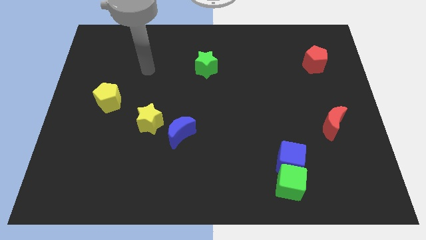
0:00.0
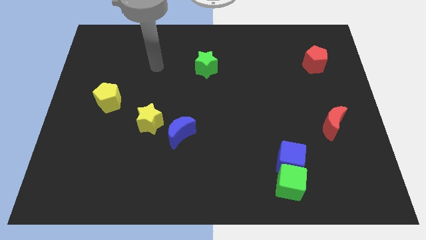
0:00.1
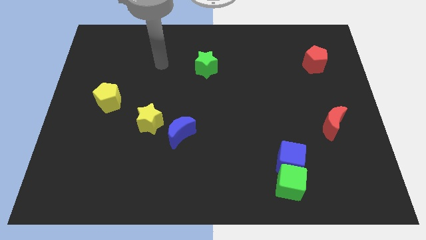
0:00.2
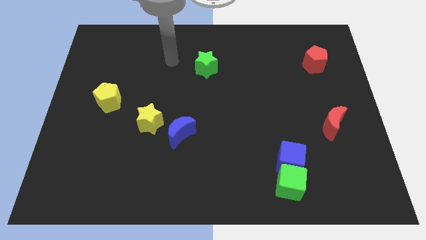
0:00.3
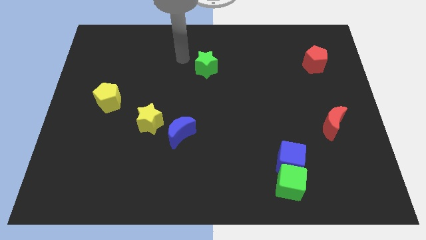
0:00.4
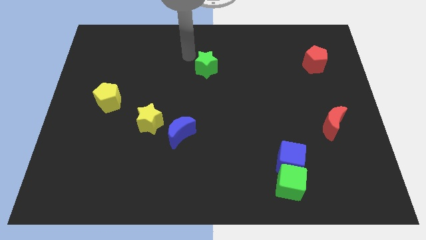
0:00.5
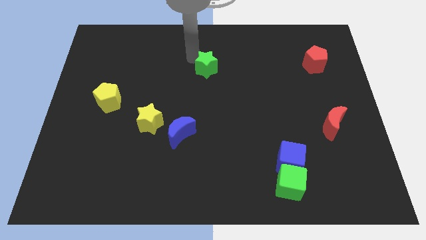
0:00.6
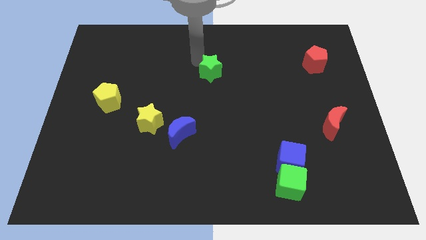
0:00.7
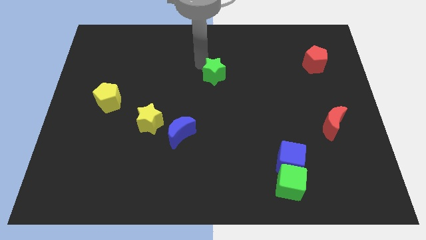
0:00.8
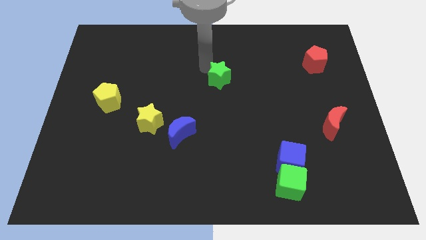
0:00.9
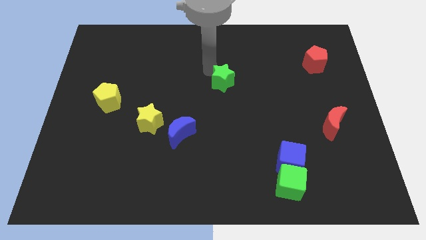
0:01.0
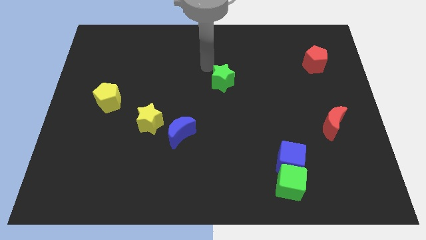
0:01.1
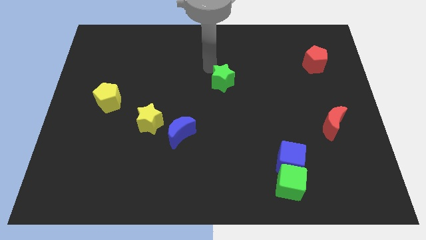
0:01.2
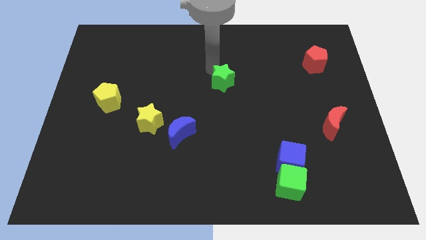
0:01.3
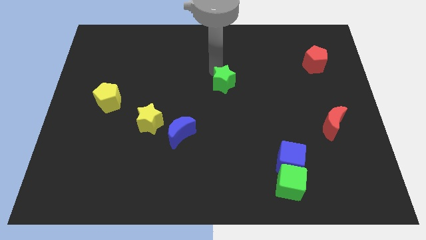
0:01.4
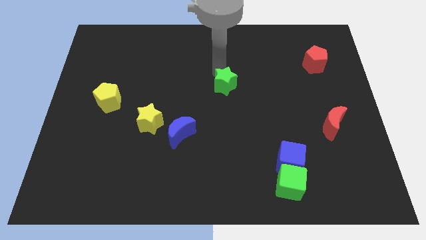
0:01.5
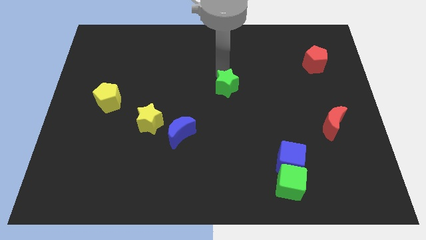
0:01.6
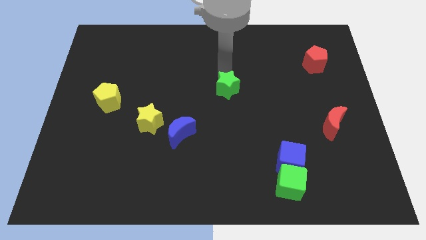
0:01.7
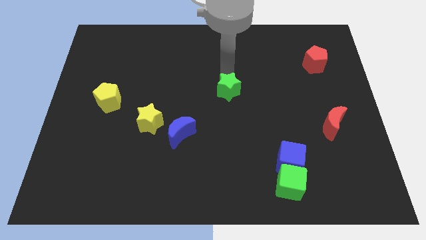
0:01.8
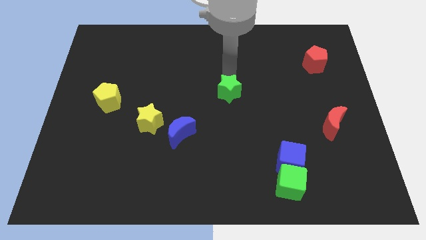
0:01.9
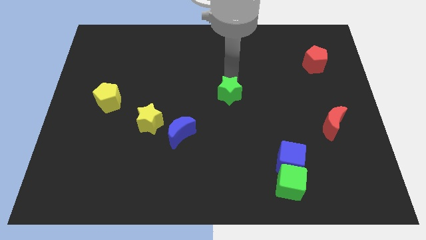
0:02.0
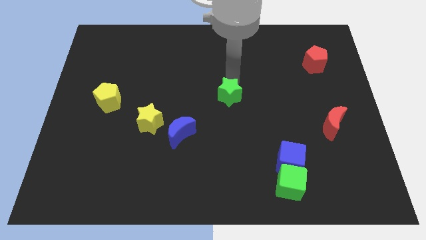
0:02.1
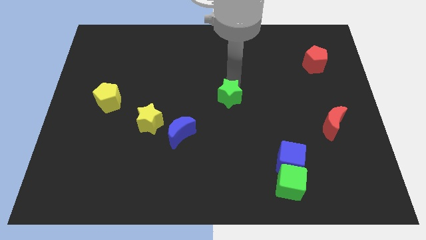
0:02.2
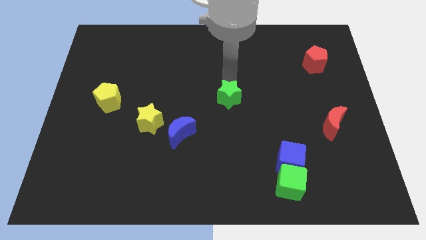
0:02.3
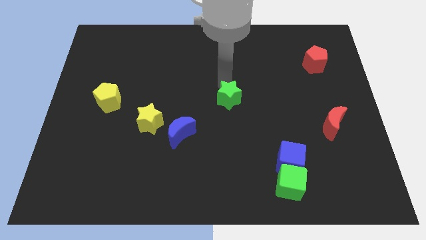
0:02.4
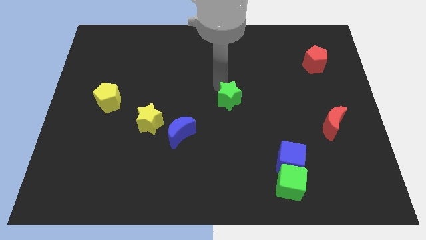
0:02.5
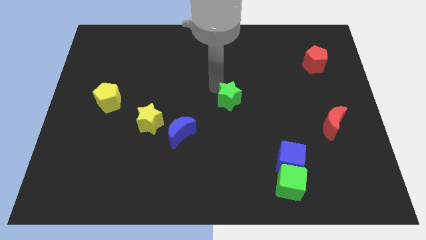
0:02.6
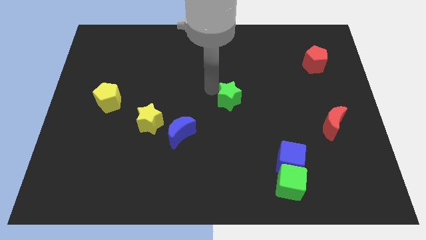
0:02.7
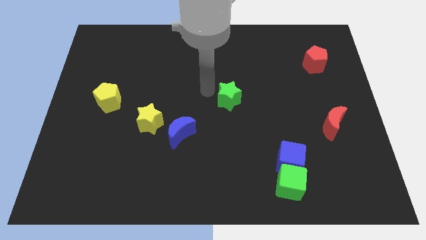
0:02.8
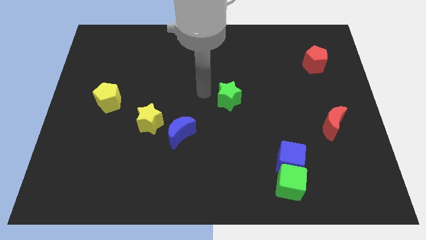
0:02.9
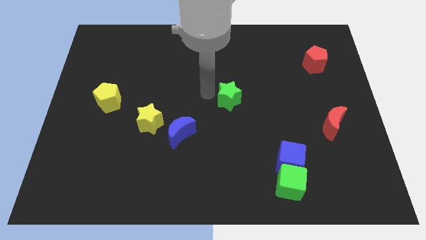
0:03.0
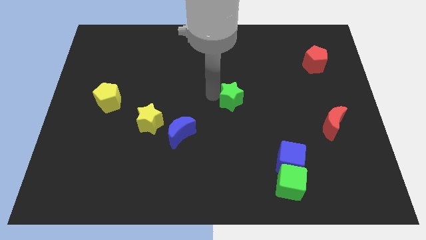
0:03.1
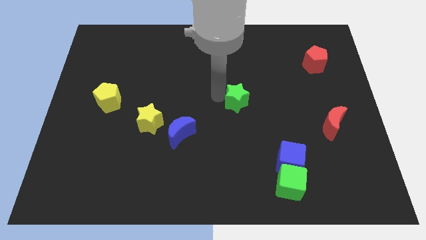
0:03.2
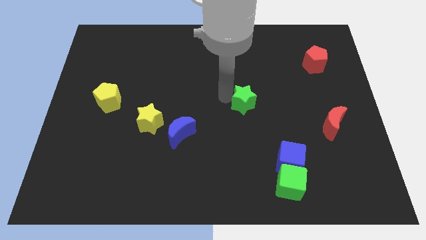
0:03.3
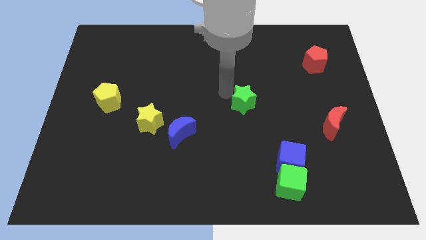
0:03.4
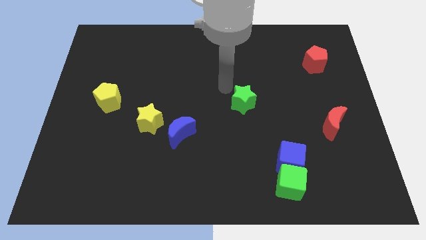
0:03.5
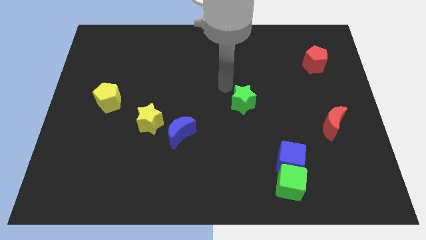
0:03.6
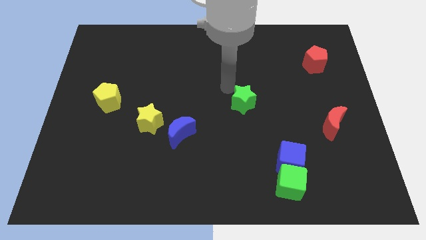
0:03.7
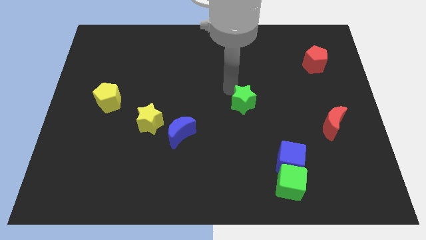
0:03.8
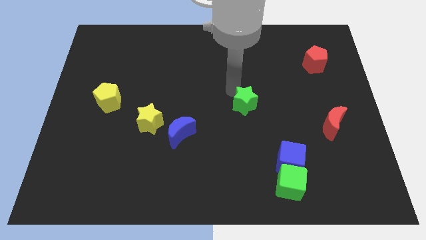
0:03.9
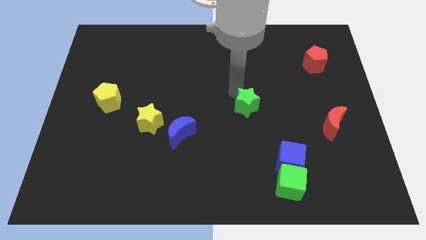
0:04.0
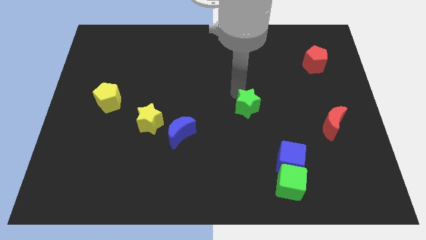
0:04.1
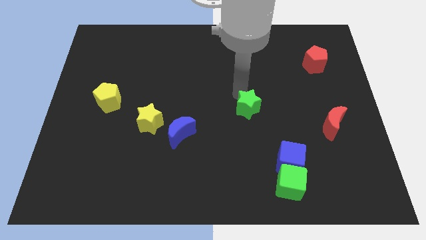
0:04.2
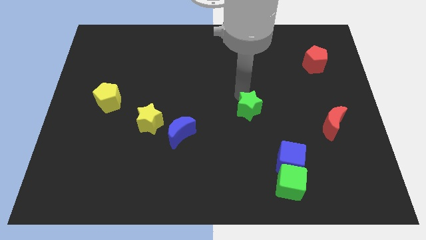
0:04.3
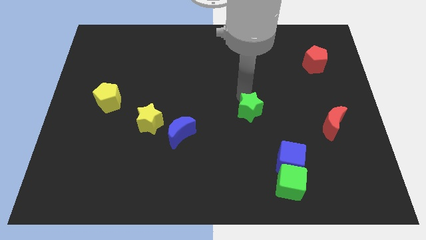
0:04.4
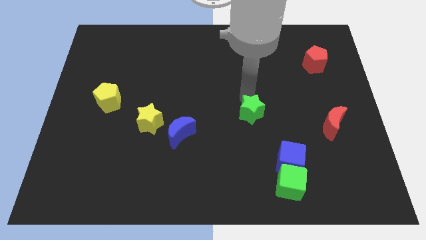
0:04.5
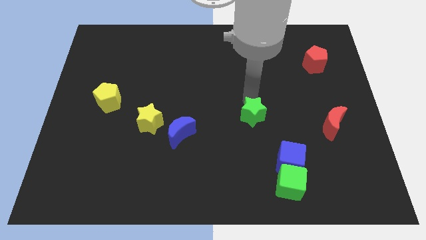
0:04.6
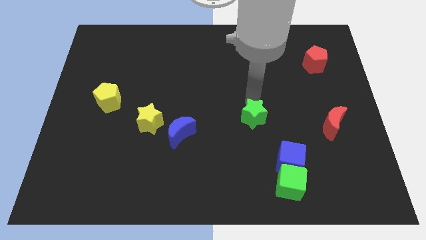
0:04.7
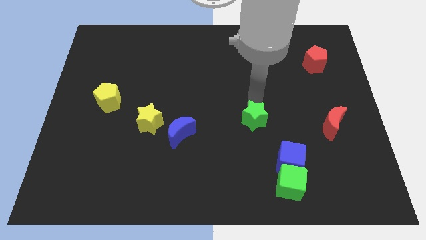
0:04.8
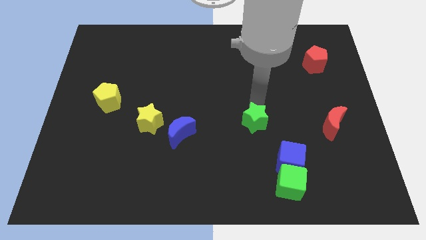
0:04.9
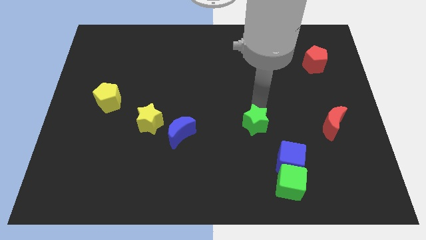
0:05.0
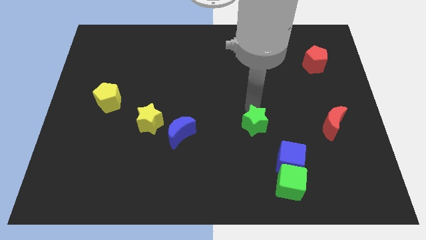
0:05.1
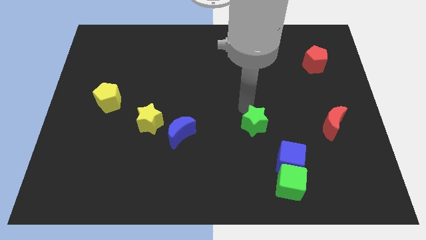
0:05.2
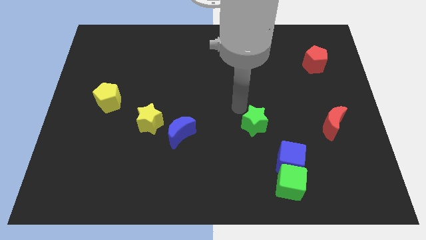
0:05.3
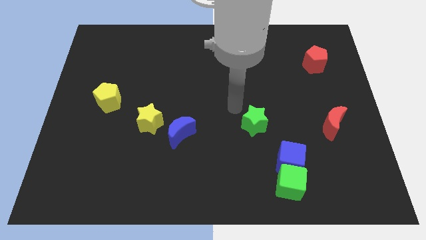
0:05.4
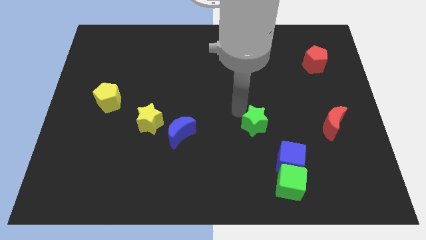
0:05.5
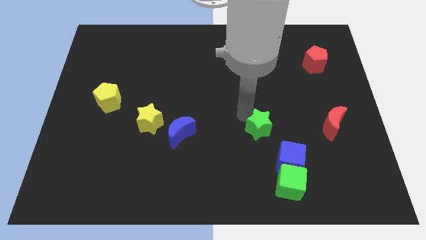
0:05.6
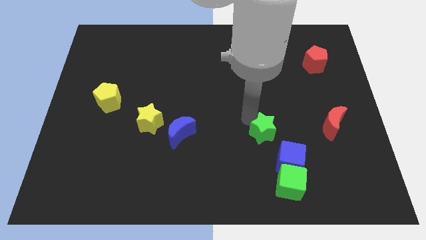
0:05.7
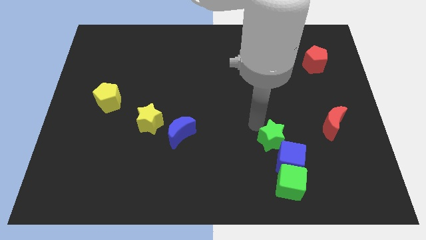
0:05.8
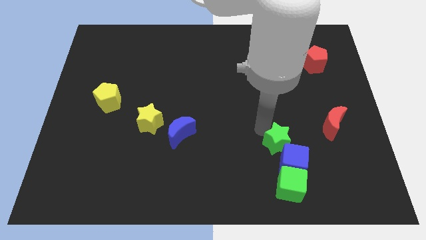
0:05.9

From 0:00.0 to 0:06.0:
slide the green star close to the blue cube

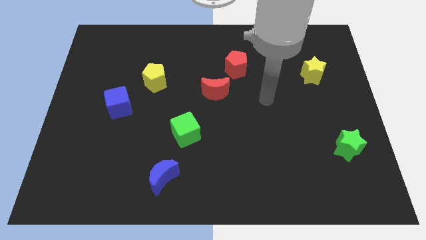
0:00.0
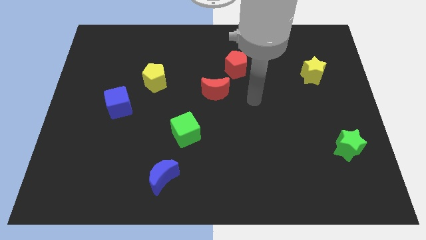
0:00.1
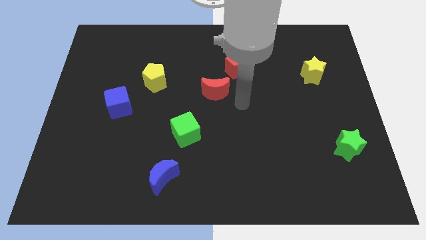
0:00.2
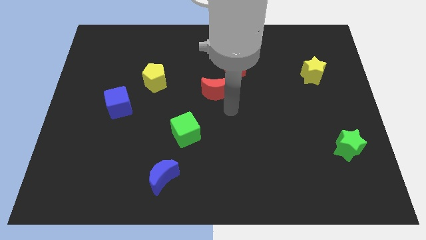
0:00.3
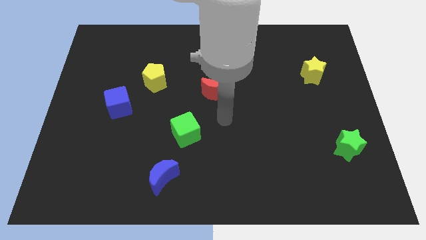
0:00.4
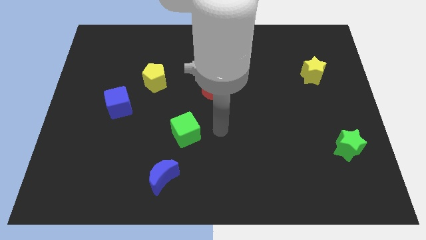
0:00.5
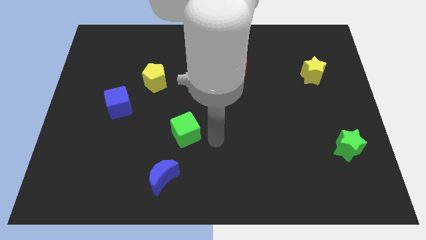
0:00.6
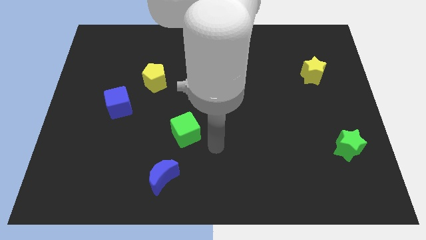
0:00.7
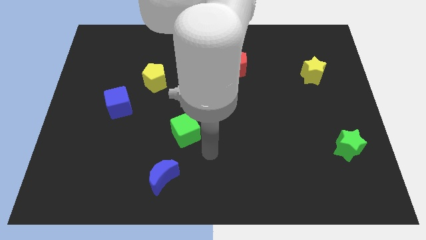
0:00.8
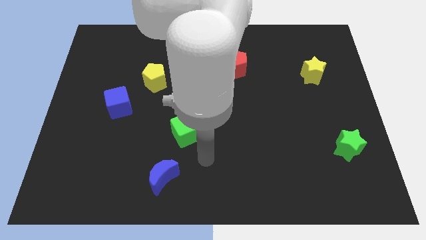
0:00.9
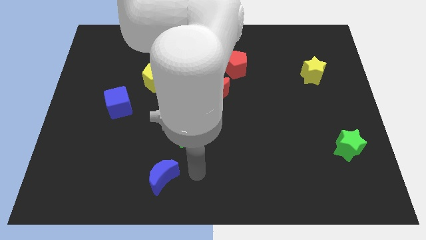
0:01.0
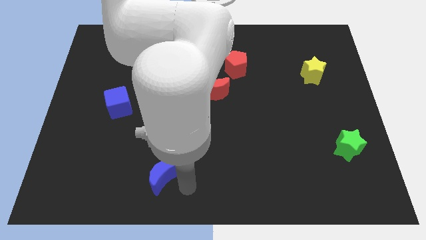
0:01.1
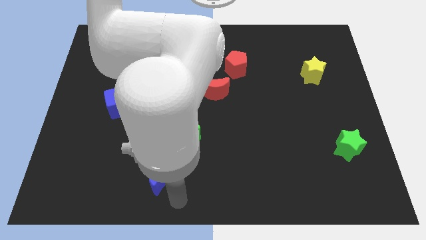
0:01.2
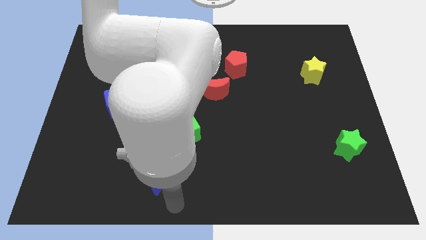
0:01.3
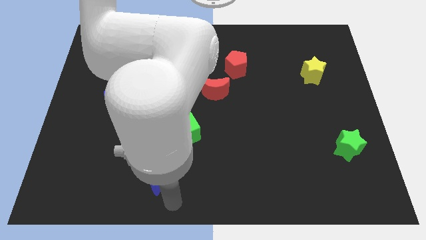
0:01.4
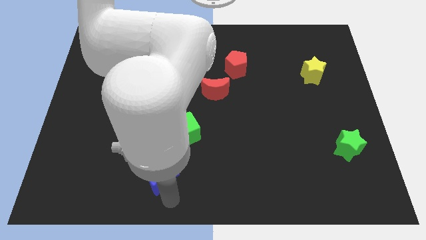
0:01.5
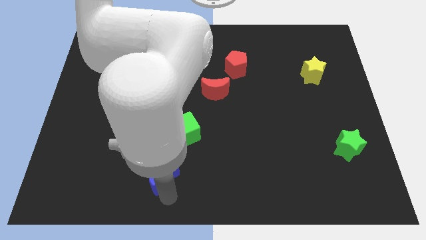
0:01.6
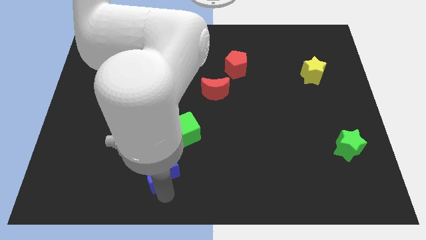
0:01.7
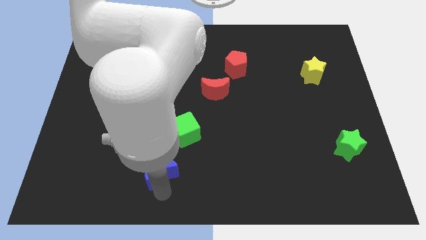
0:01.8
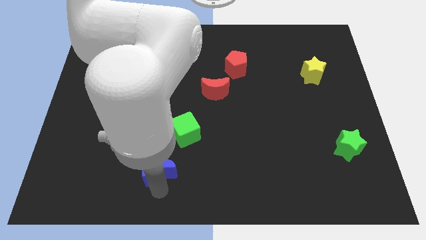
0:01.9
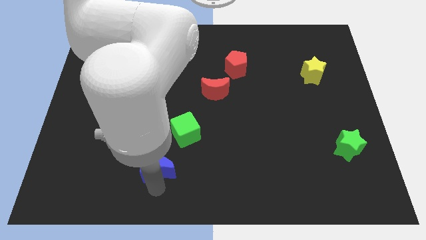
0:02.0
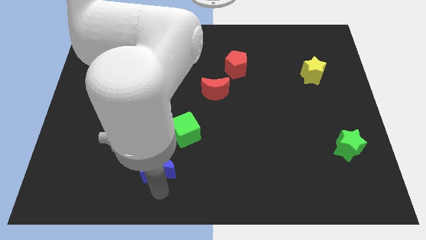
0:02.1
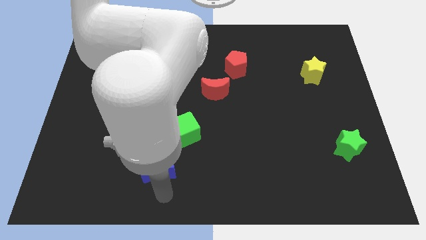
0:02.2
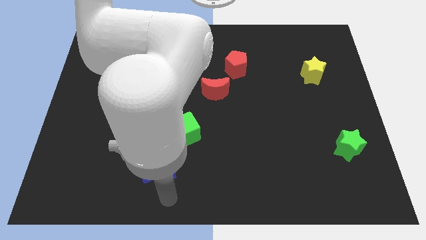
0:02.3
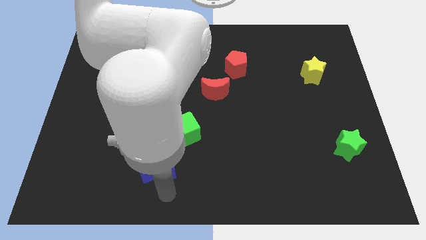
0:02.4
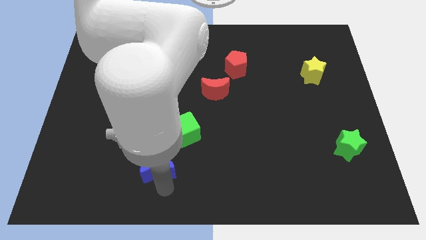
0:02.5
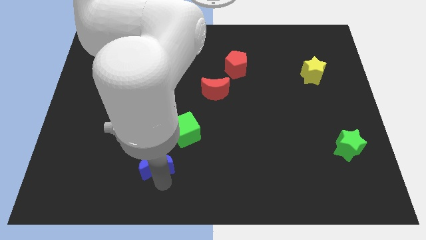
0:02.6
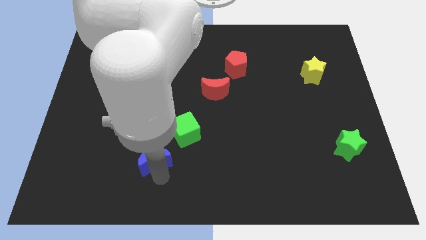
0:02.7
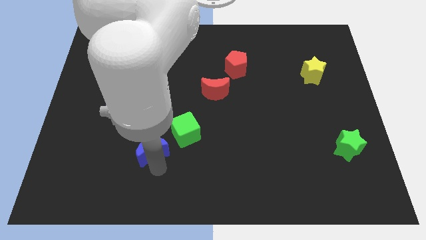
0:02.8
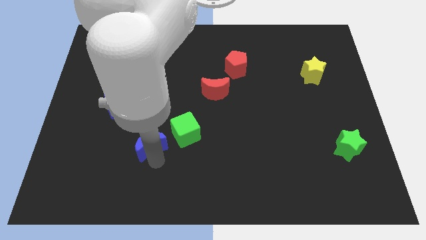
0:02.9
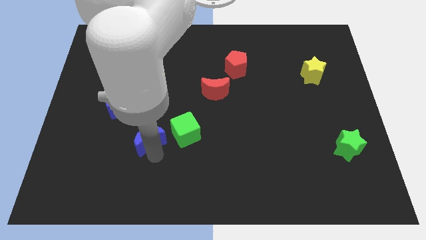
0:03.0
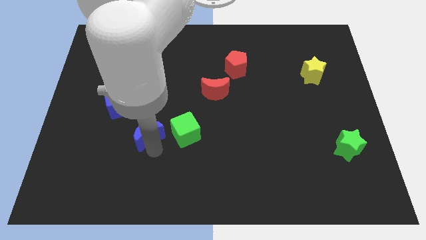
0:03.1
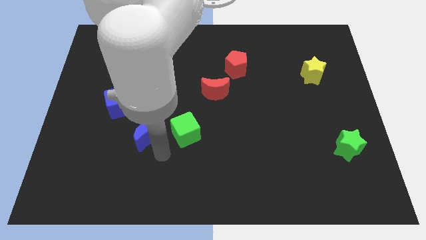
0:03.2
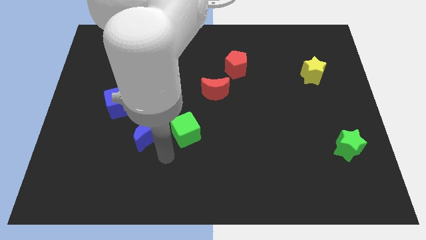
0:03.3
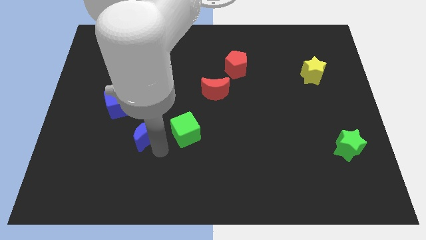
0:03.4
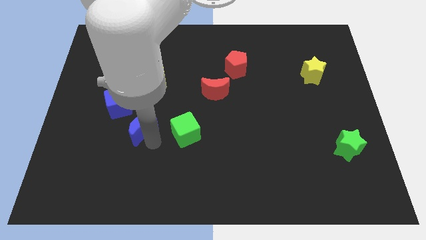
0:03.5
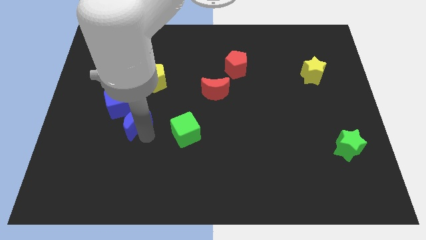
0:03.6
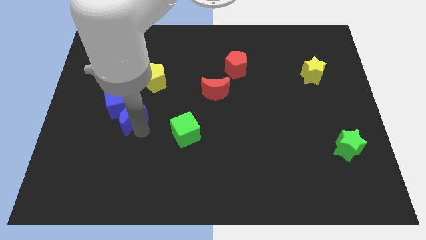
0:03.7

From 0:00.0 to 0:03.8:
move the blue moon towards the blue cube
